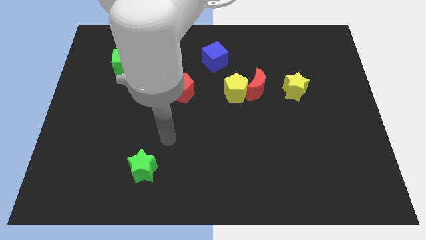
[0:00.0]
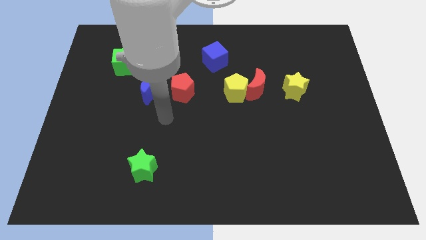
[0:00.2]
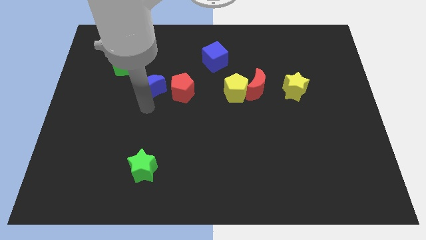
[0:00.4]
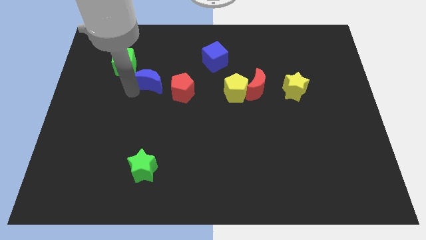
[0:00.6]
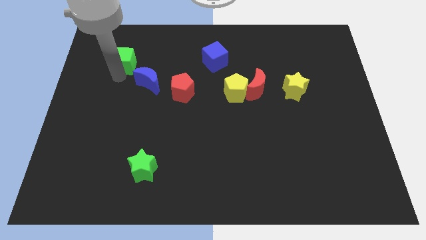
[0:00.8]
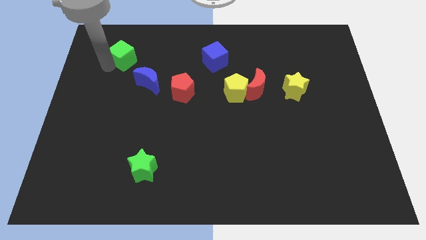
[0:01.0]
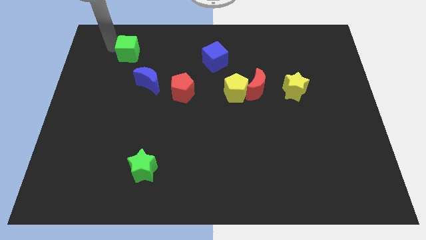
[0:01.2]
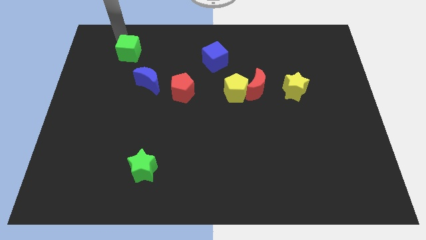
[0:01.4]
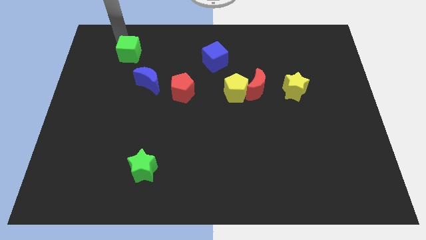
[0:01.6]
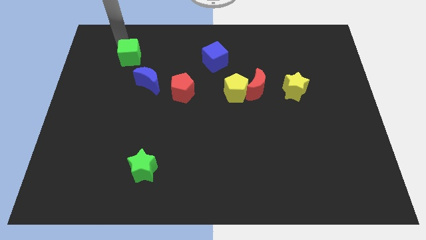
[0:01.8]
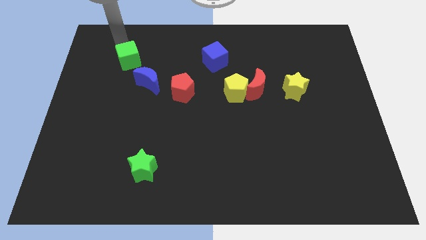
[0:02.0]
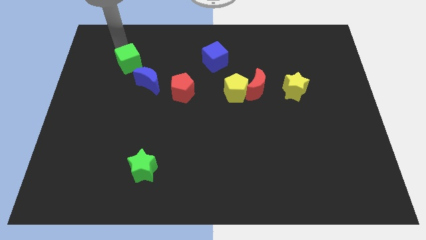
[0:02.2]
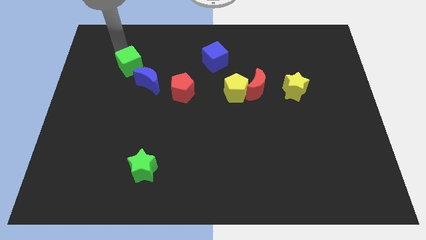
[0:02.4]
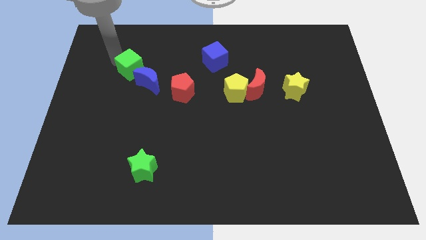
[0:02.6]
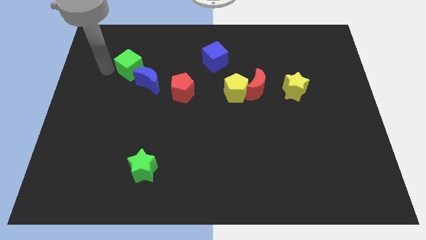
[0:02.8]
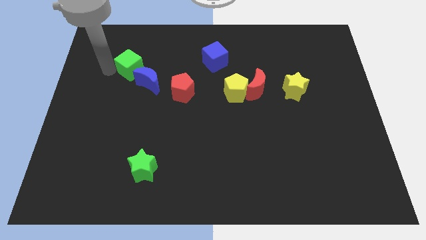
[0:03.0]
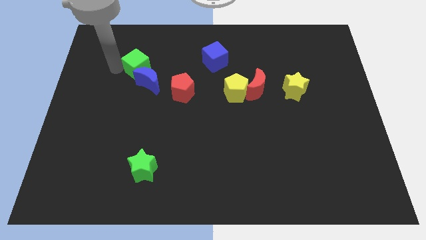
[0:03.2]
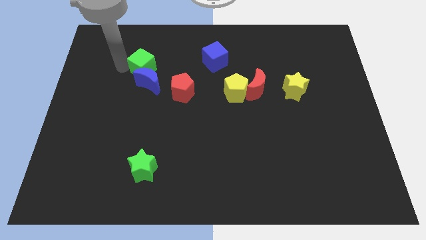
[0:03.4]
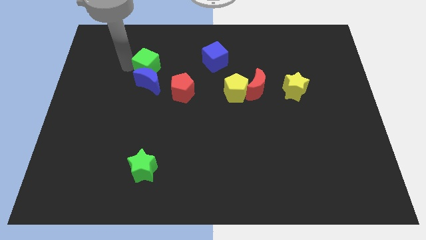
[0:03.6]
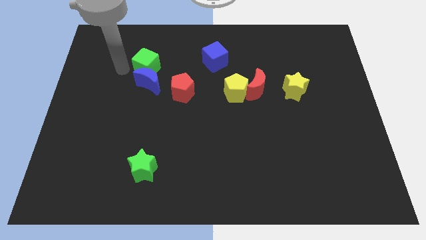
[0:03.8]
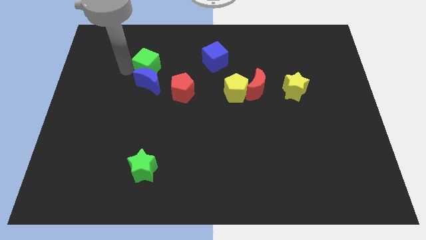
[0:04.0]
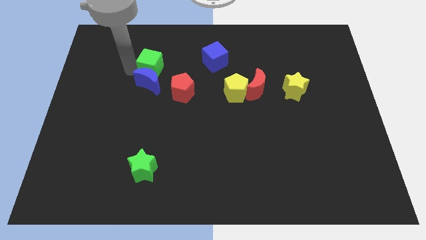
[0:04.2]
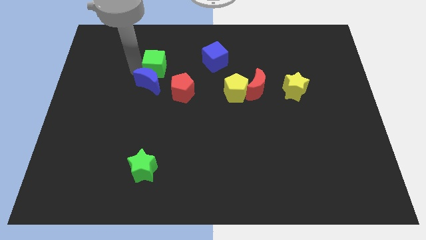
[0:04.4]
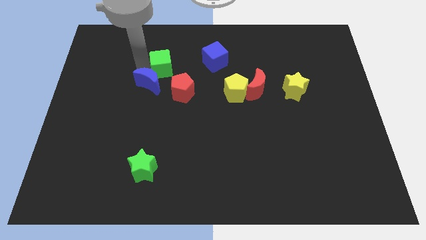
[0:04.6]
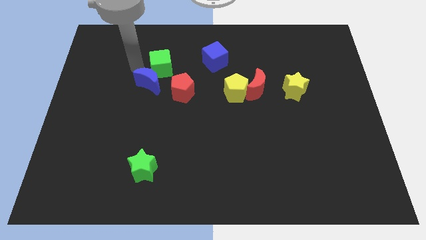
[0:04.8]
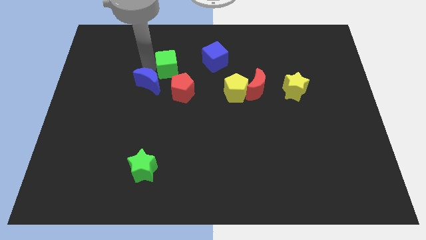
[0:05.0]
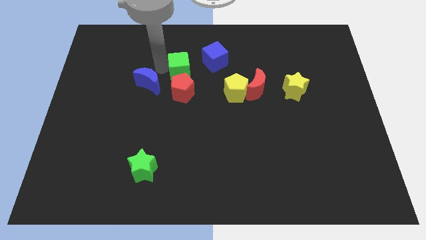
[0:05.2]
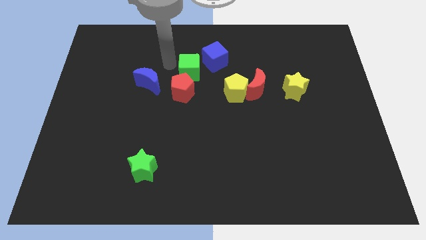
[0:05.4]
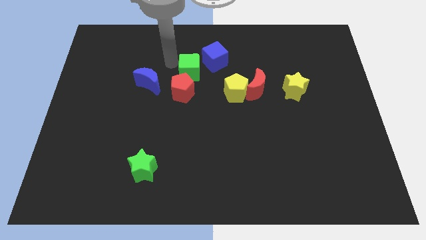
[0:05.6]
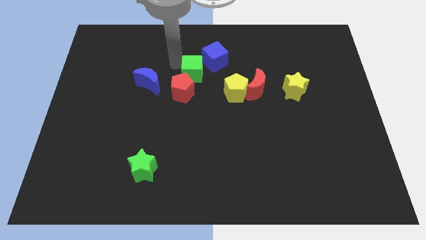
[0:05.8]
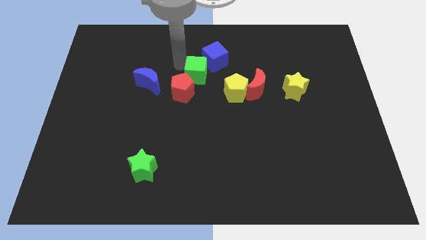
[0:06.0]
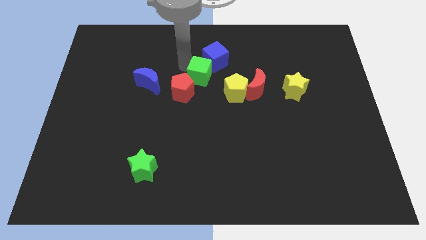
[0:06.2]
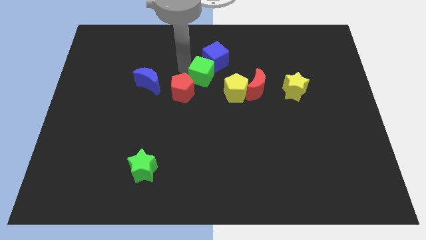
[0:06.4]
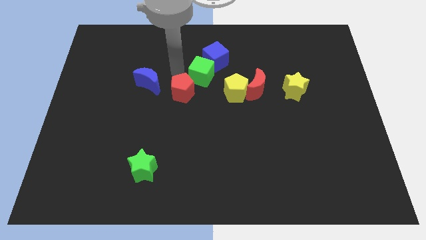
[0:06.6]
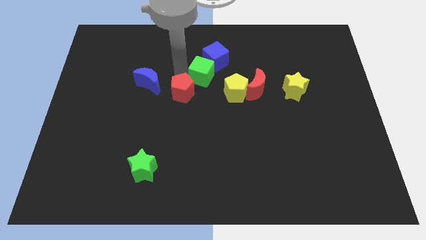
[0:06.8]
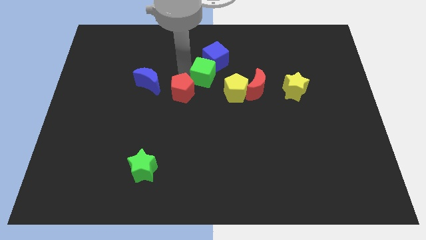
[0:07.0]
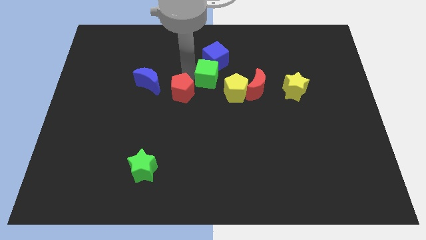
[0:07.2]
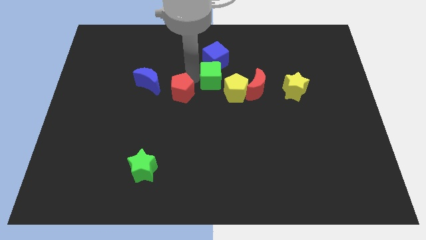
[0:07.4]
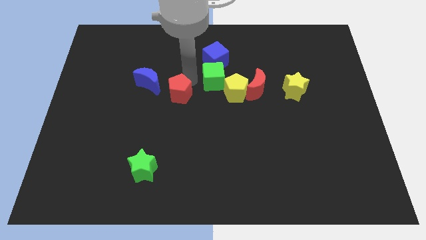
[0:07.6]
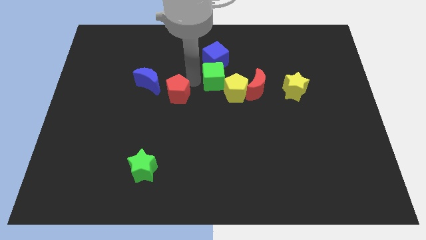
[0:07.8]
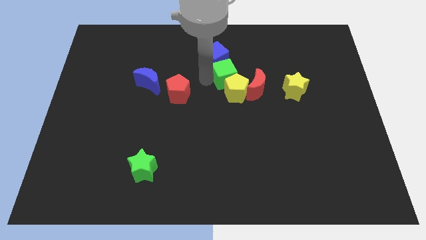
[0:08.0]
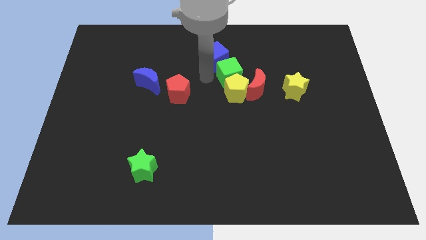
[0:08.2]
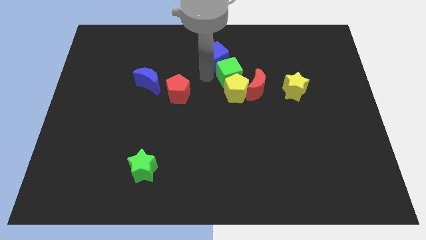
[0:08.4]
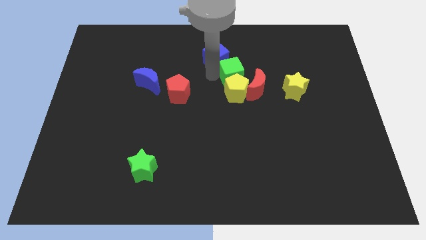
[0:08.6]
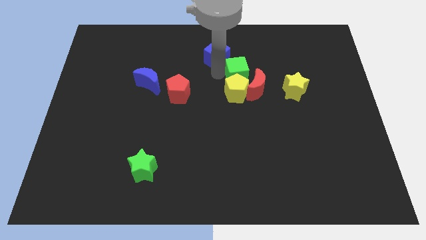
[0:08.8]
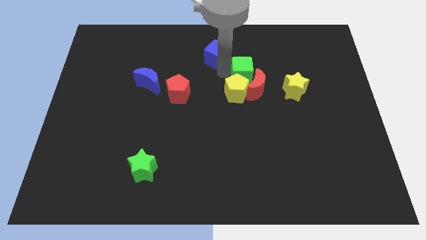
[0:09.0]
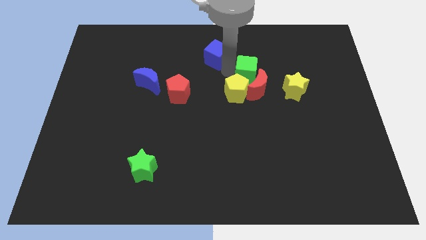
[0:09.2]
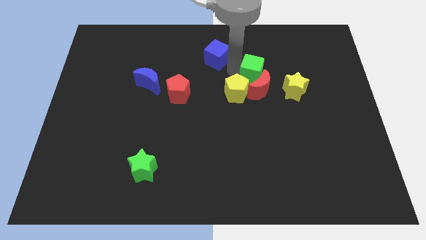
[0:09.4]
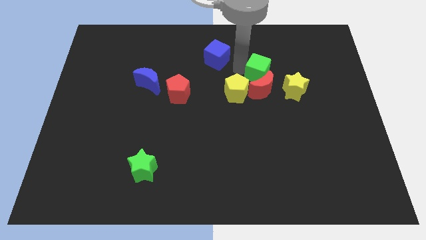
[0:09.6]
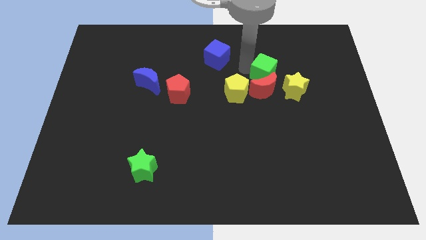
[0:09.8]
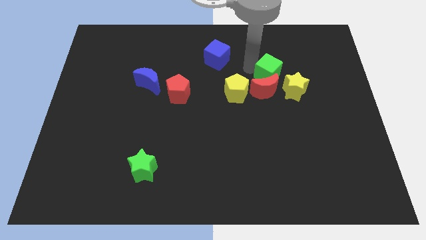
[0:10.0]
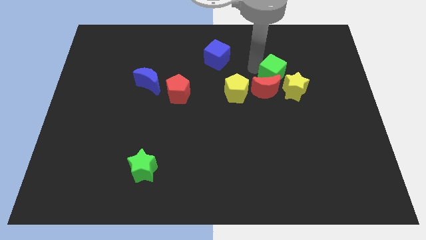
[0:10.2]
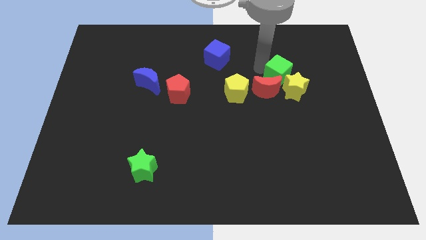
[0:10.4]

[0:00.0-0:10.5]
push the green cube towards the yellow star

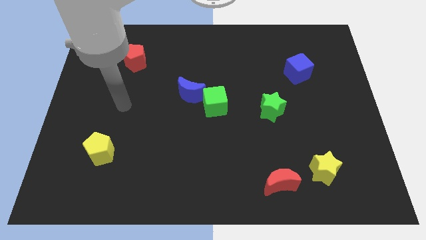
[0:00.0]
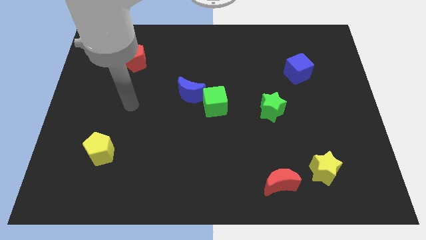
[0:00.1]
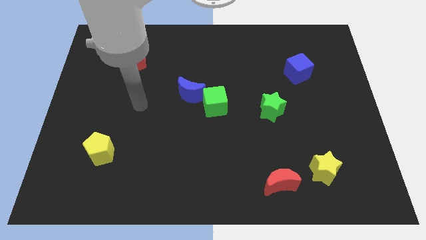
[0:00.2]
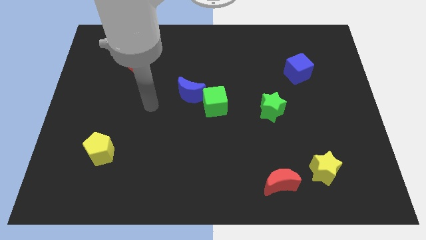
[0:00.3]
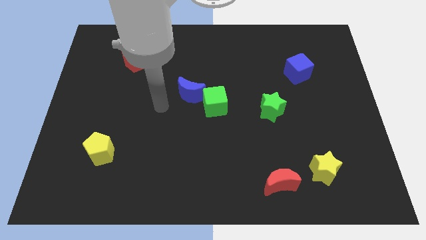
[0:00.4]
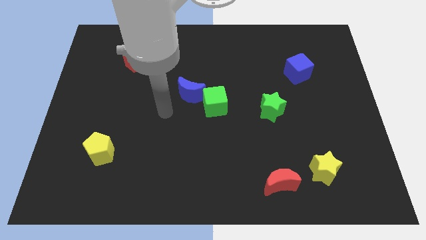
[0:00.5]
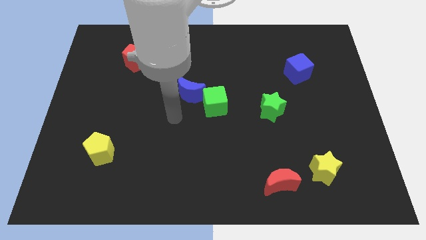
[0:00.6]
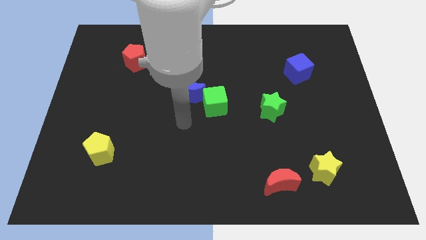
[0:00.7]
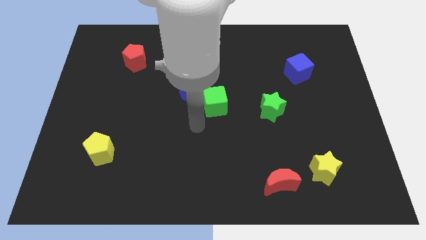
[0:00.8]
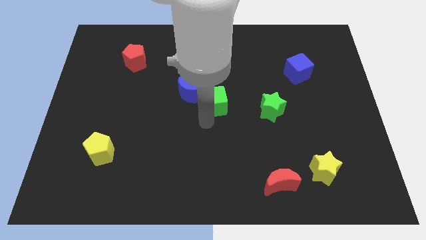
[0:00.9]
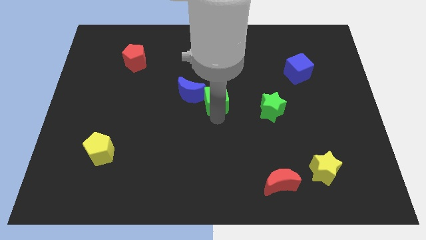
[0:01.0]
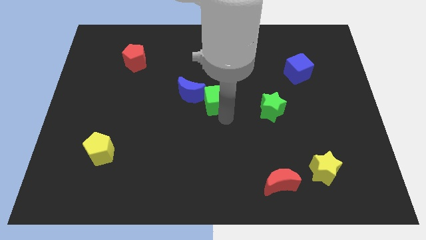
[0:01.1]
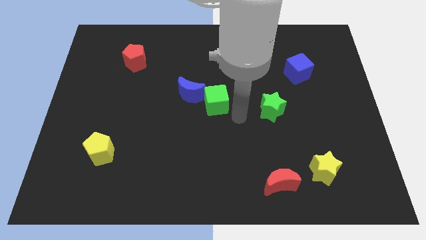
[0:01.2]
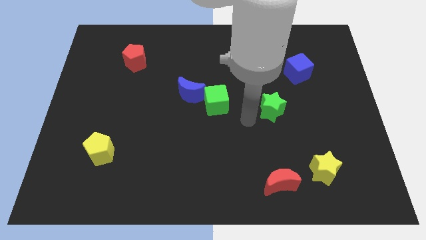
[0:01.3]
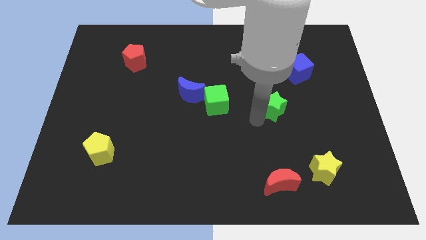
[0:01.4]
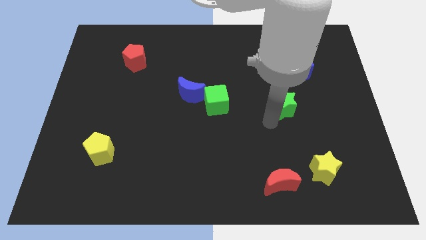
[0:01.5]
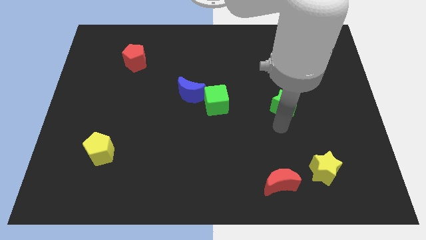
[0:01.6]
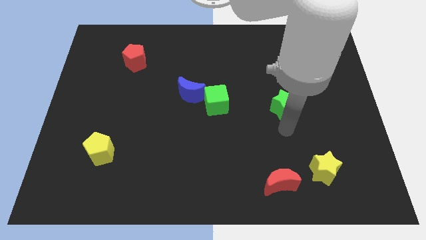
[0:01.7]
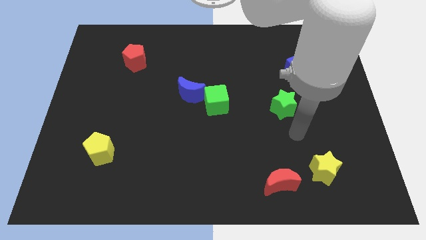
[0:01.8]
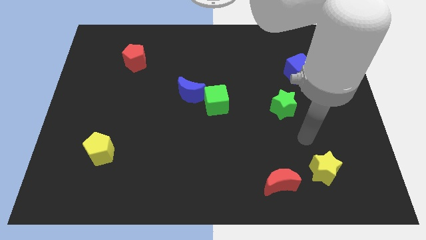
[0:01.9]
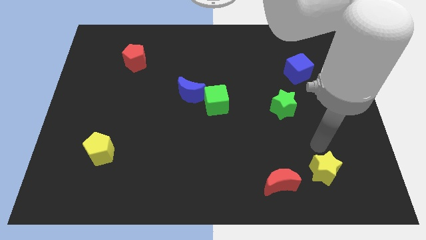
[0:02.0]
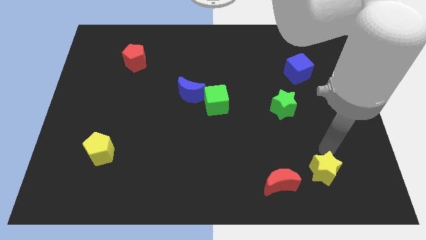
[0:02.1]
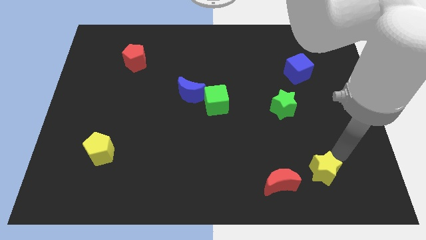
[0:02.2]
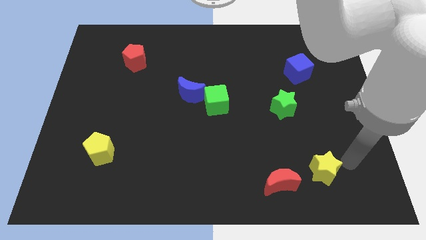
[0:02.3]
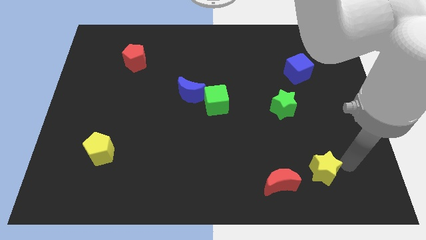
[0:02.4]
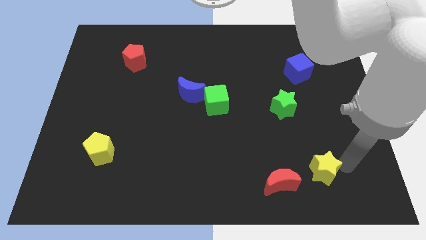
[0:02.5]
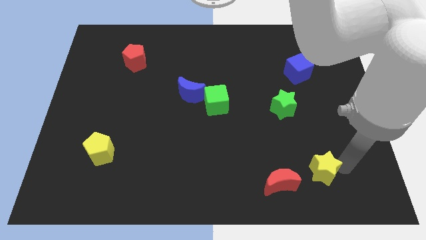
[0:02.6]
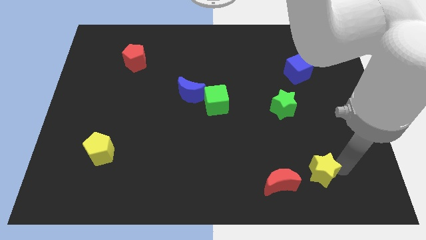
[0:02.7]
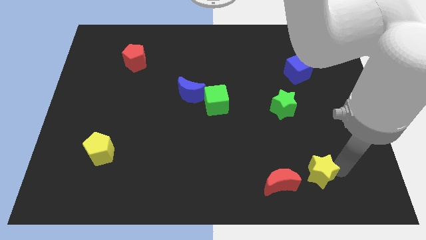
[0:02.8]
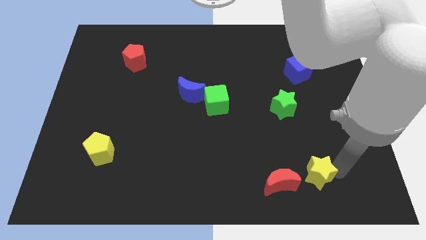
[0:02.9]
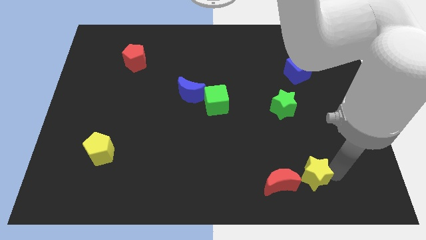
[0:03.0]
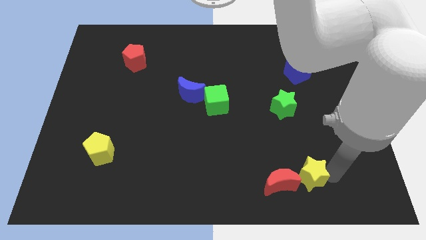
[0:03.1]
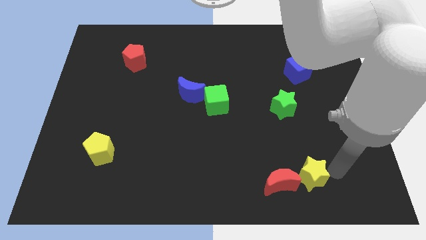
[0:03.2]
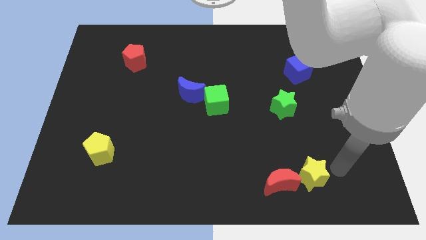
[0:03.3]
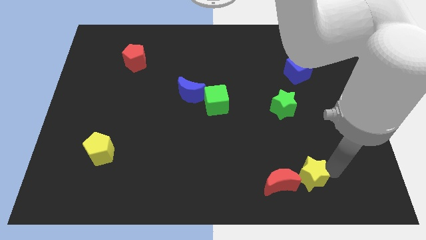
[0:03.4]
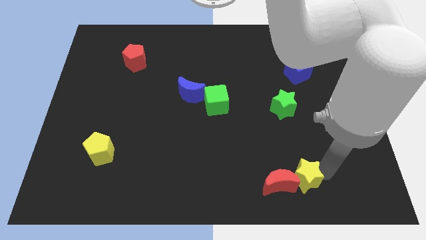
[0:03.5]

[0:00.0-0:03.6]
put the yellow star next to the red moon
